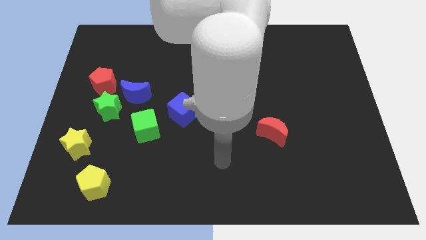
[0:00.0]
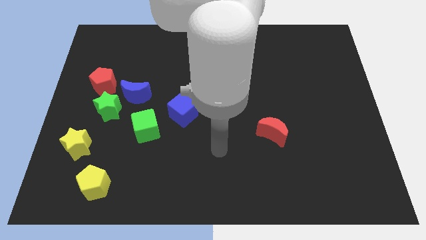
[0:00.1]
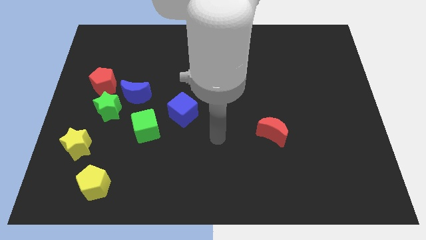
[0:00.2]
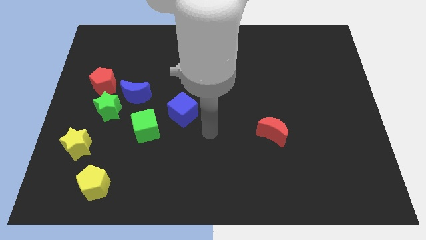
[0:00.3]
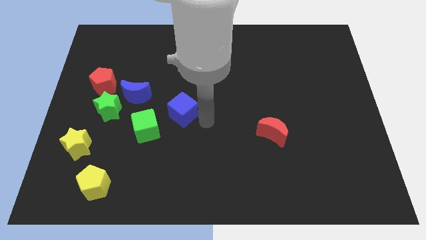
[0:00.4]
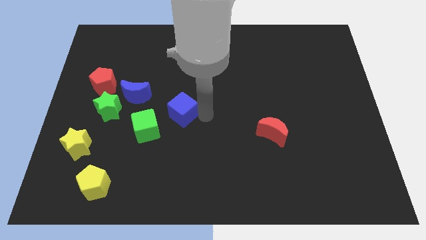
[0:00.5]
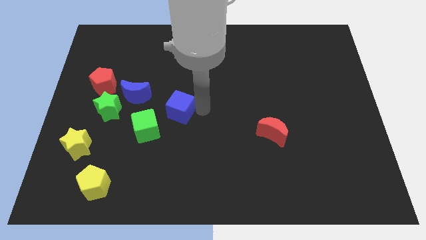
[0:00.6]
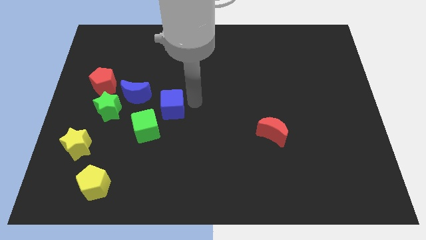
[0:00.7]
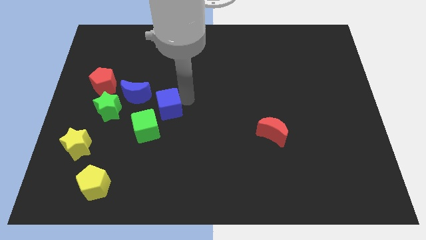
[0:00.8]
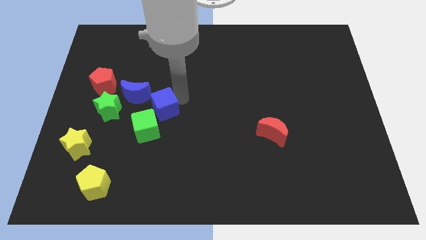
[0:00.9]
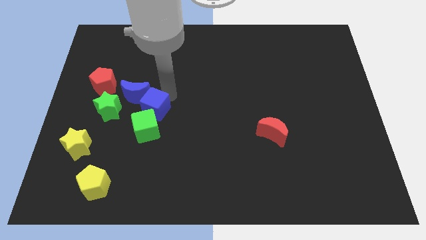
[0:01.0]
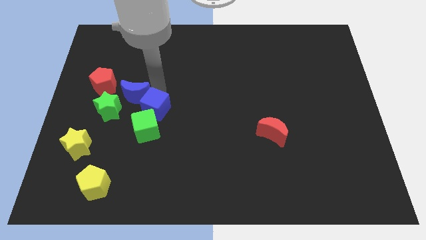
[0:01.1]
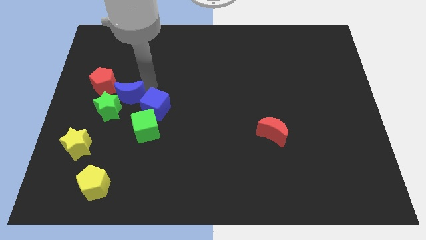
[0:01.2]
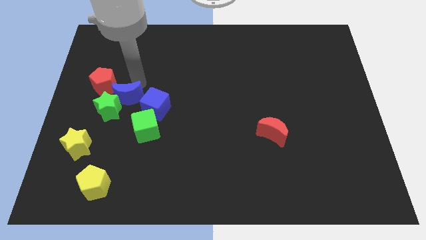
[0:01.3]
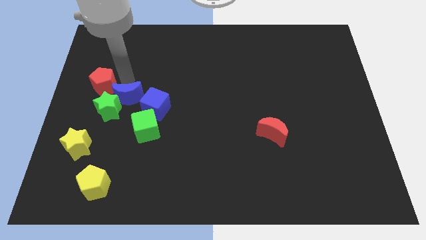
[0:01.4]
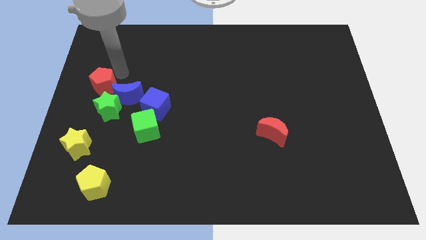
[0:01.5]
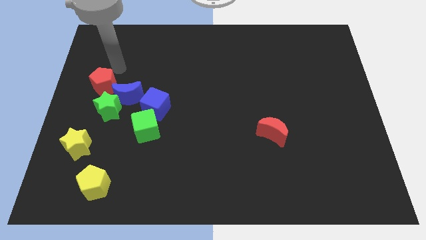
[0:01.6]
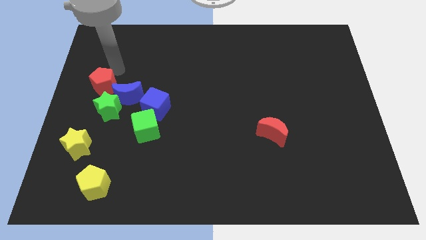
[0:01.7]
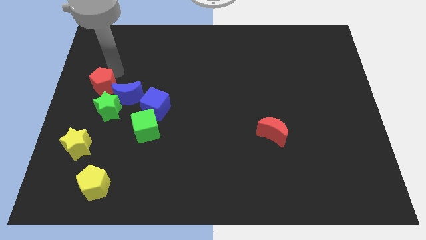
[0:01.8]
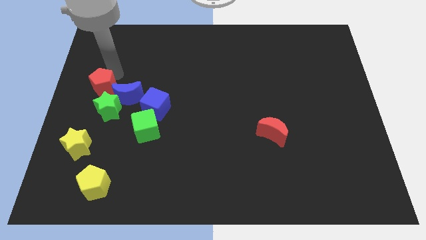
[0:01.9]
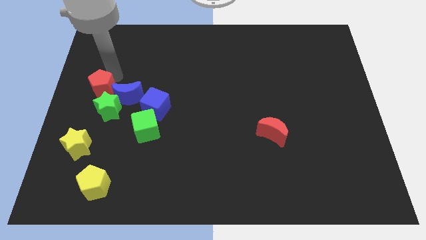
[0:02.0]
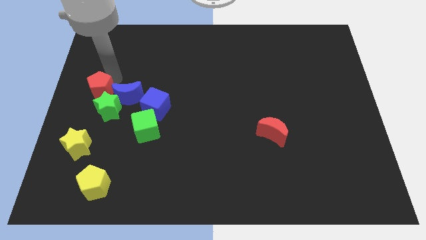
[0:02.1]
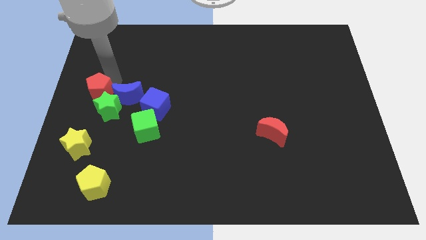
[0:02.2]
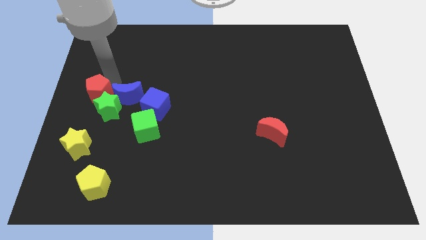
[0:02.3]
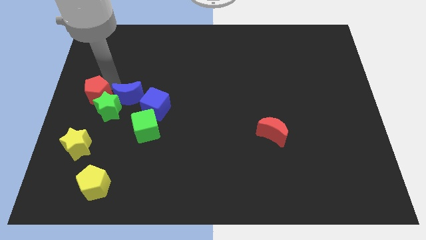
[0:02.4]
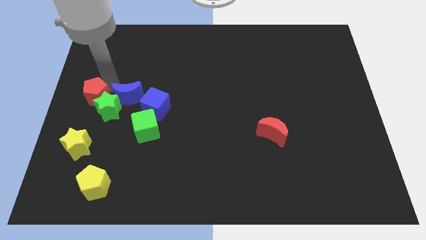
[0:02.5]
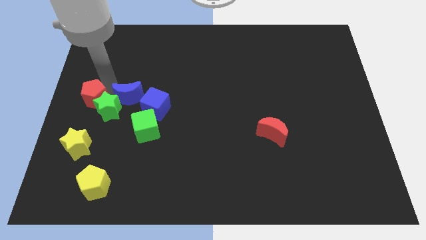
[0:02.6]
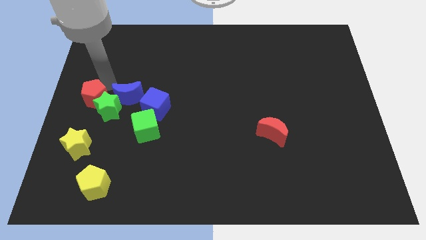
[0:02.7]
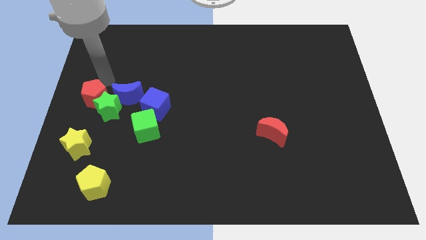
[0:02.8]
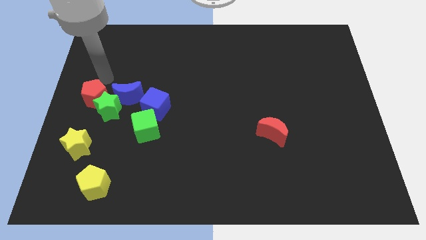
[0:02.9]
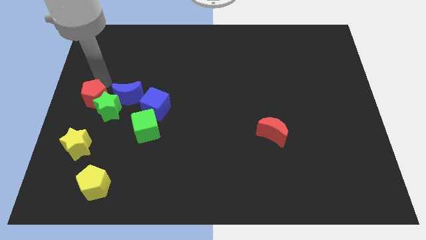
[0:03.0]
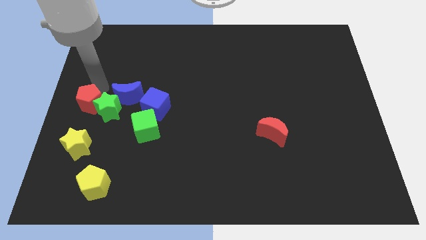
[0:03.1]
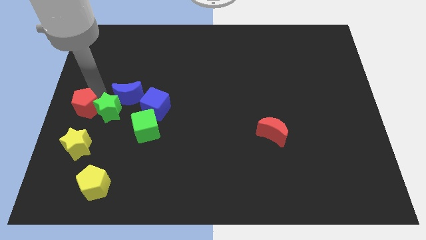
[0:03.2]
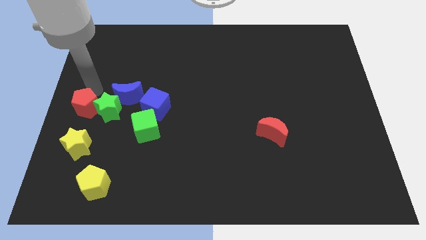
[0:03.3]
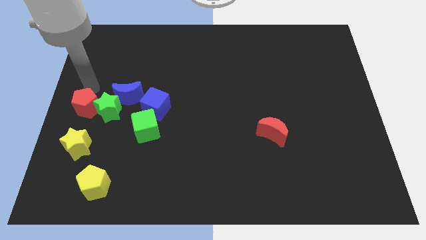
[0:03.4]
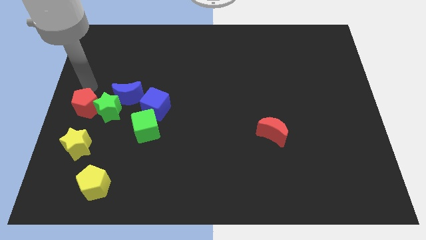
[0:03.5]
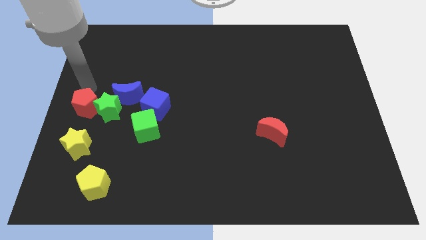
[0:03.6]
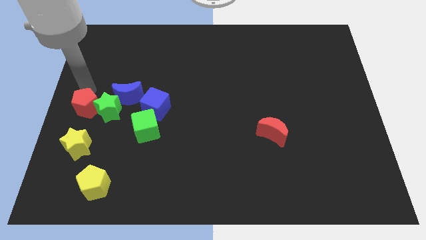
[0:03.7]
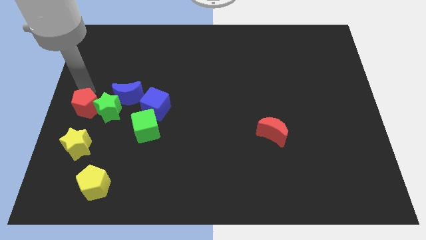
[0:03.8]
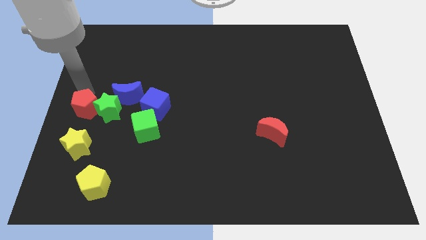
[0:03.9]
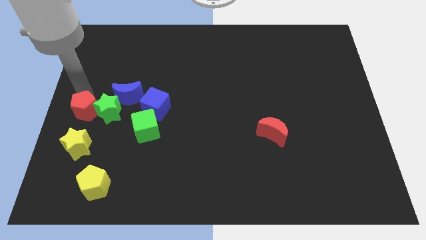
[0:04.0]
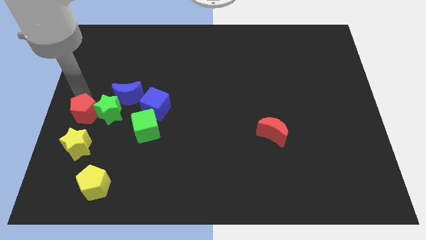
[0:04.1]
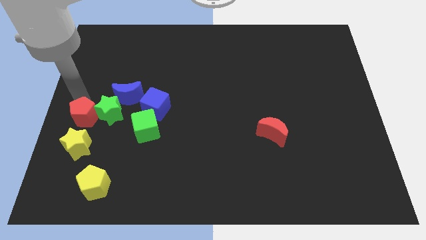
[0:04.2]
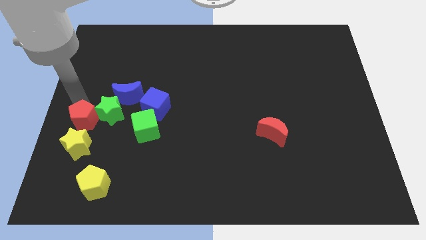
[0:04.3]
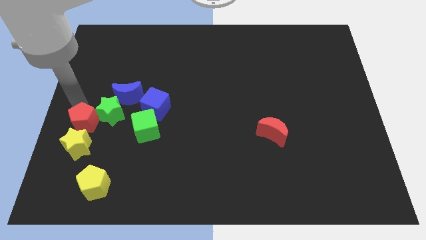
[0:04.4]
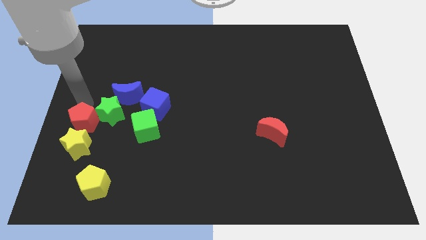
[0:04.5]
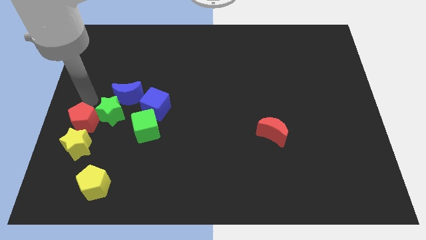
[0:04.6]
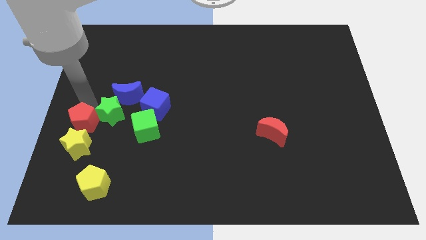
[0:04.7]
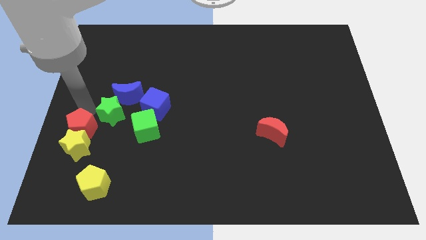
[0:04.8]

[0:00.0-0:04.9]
push the red pentagon close to the yellow star

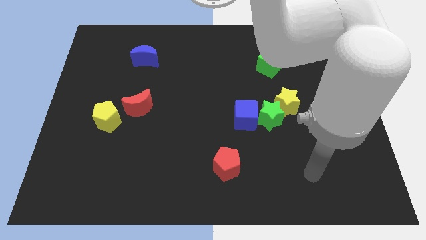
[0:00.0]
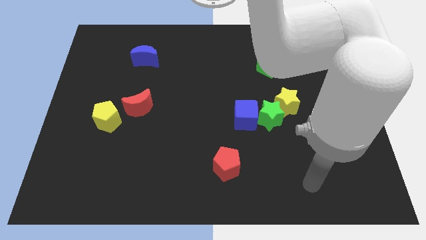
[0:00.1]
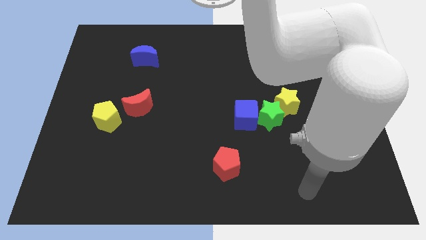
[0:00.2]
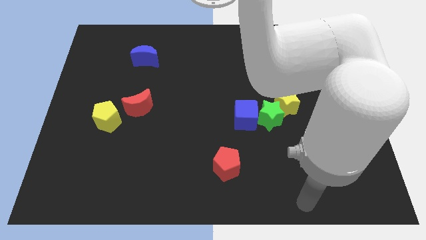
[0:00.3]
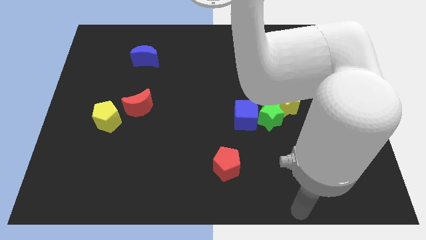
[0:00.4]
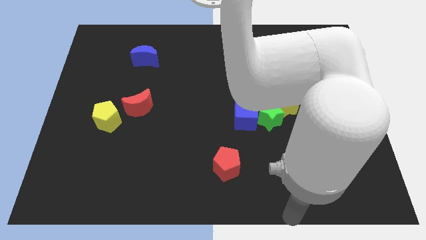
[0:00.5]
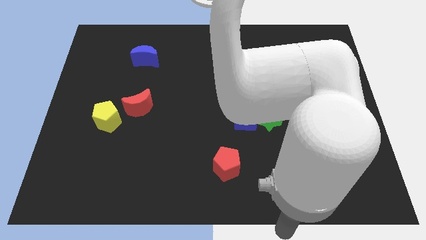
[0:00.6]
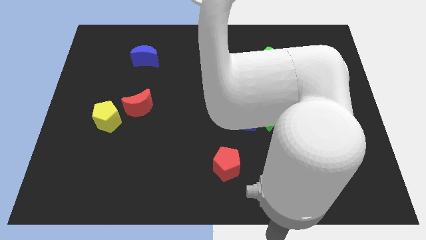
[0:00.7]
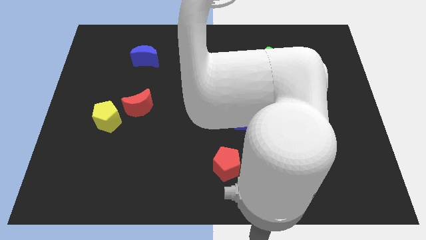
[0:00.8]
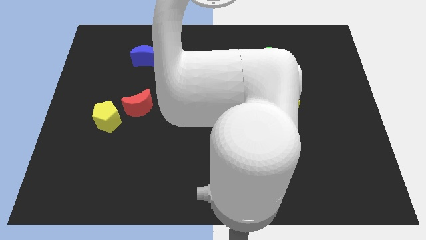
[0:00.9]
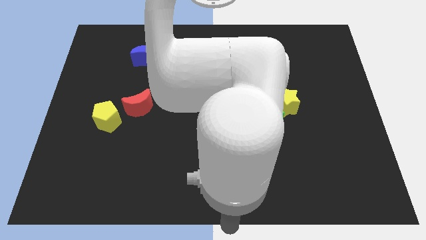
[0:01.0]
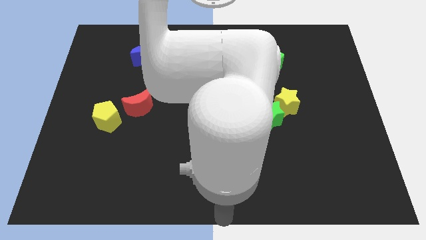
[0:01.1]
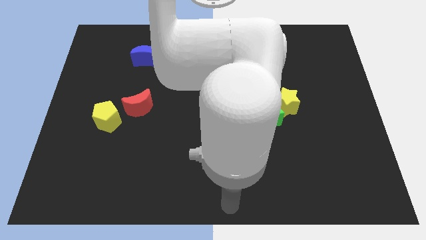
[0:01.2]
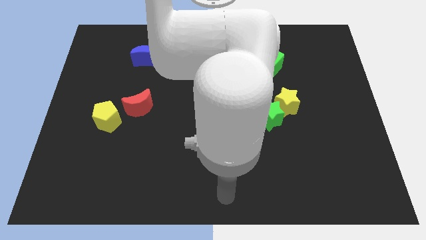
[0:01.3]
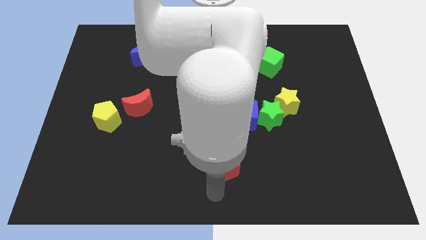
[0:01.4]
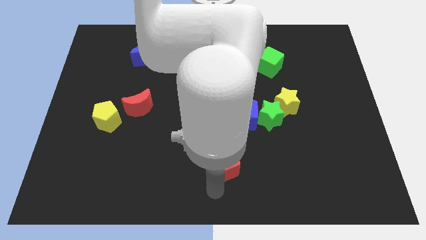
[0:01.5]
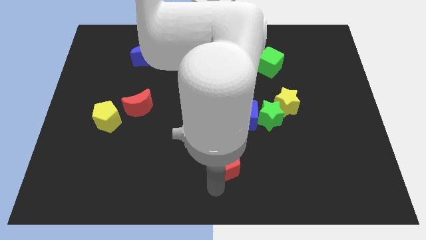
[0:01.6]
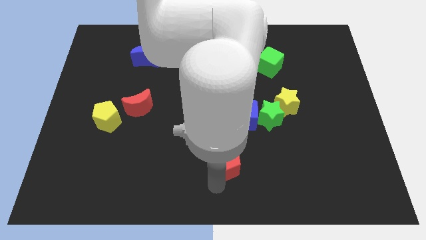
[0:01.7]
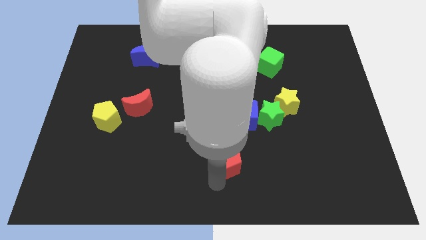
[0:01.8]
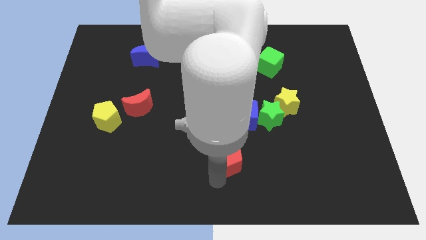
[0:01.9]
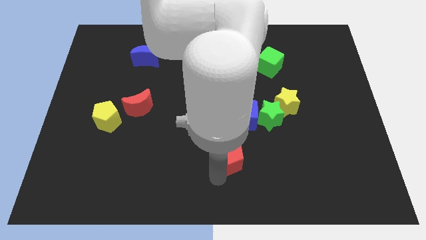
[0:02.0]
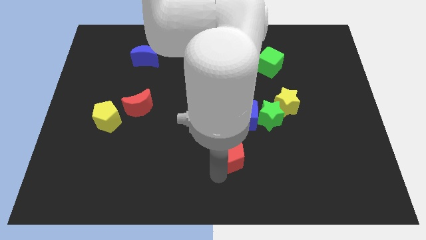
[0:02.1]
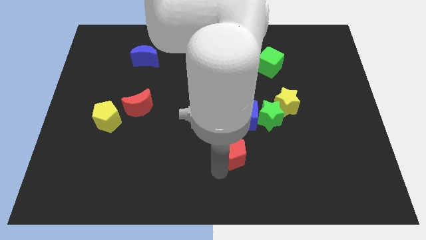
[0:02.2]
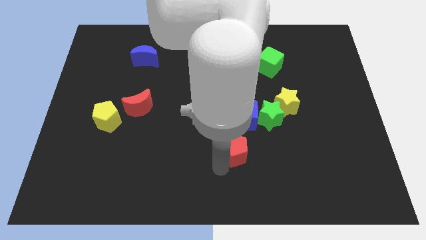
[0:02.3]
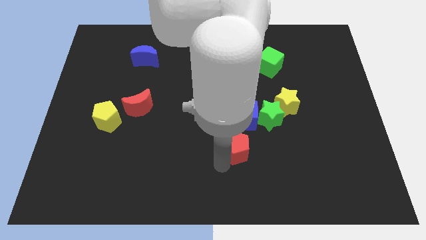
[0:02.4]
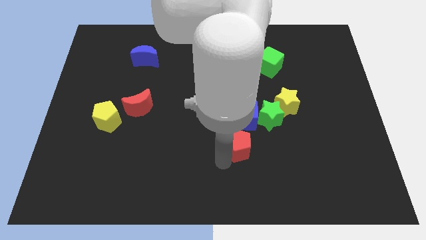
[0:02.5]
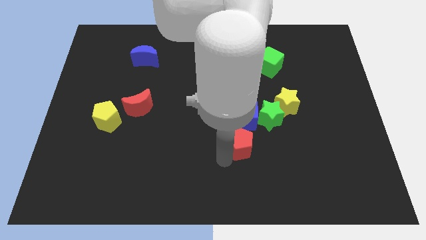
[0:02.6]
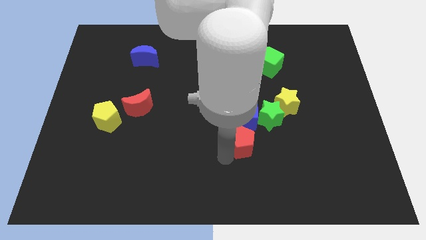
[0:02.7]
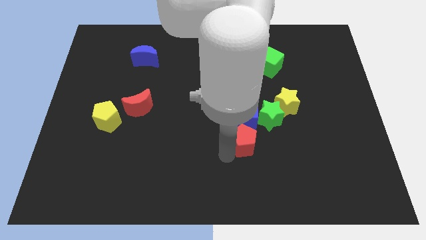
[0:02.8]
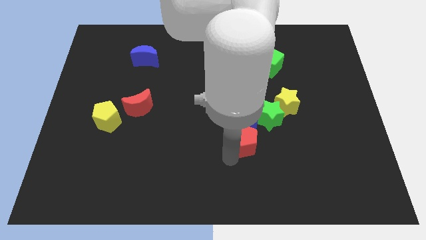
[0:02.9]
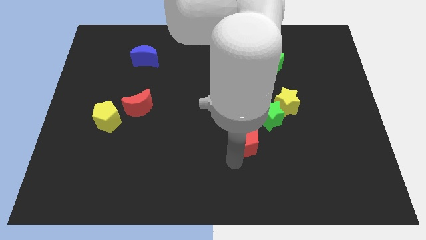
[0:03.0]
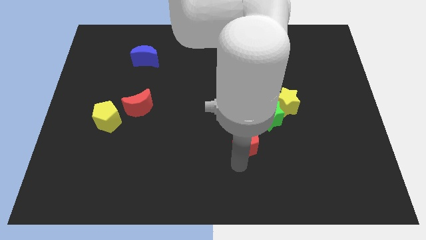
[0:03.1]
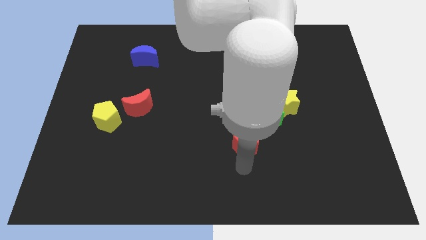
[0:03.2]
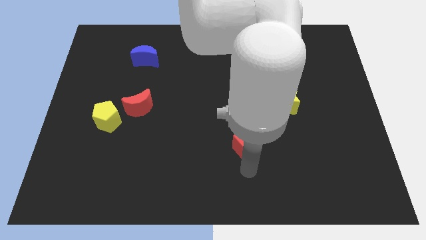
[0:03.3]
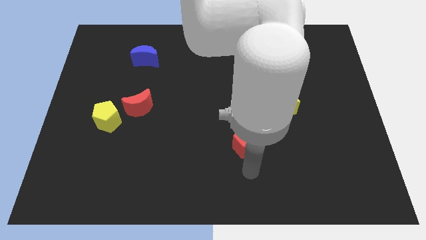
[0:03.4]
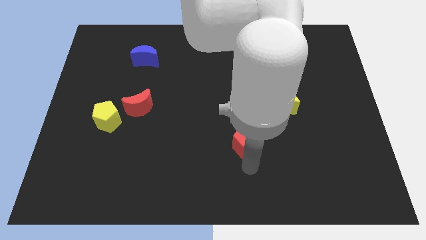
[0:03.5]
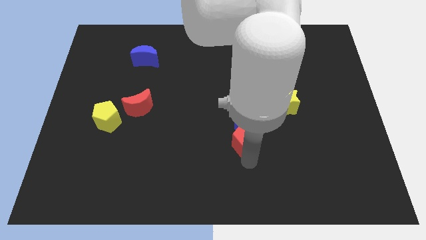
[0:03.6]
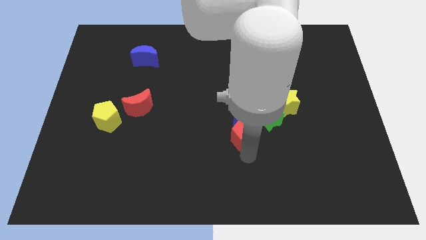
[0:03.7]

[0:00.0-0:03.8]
push the red pentagon next to the blue cube
